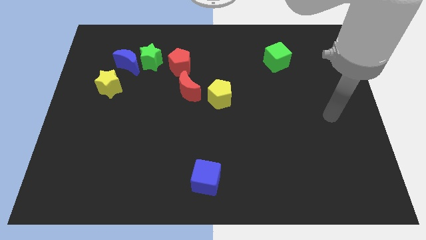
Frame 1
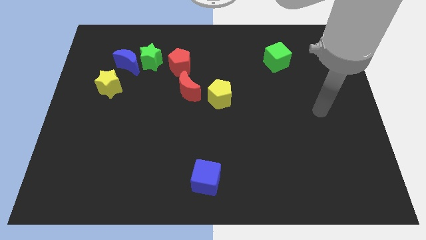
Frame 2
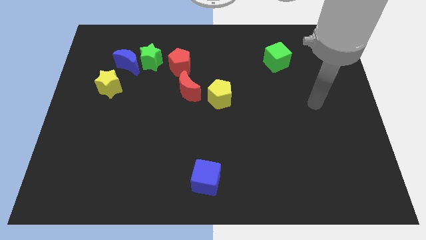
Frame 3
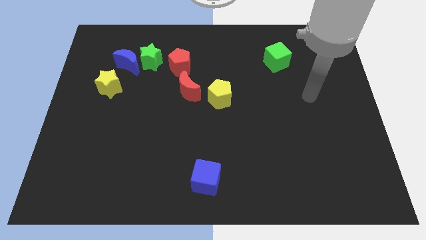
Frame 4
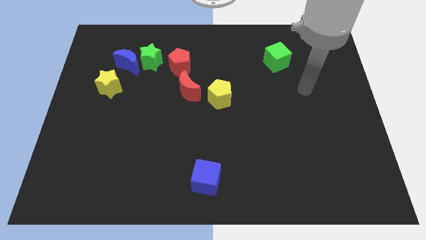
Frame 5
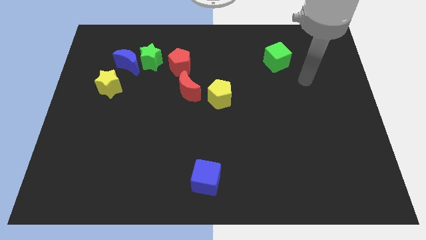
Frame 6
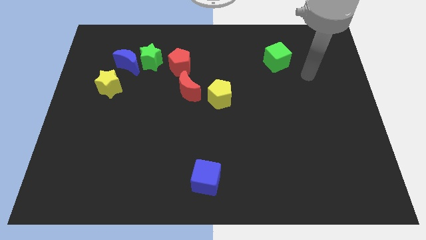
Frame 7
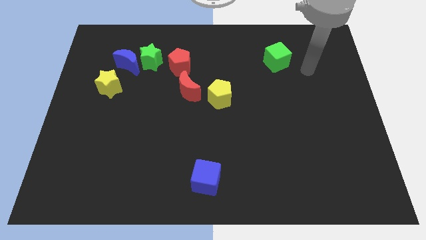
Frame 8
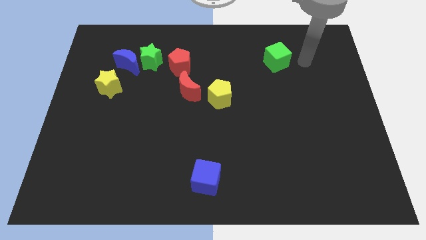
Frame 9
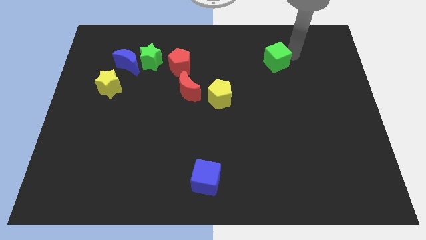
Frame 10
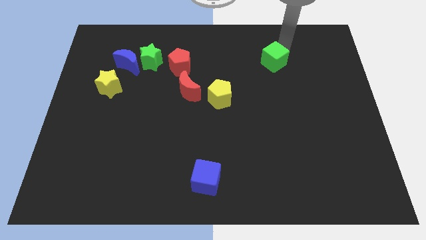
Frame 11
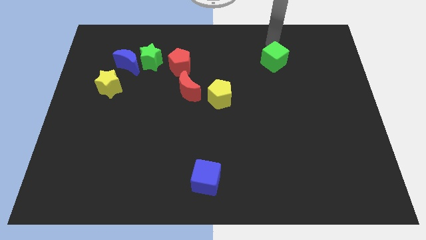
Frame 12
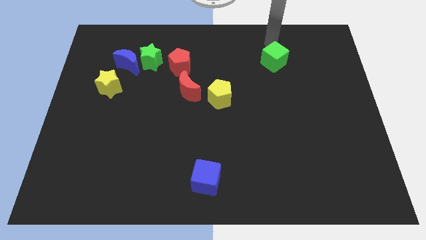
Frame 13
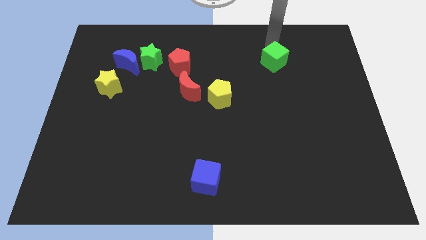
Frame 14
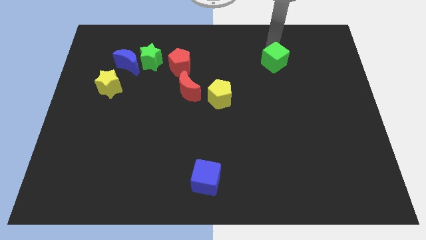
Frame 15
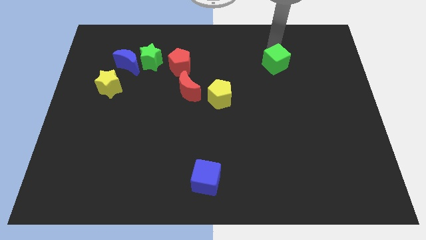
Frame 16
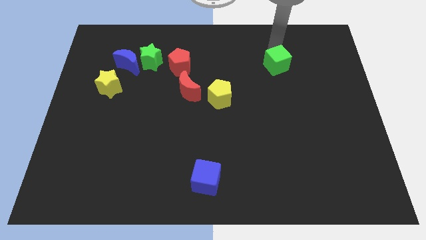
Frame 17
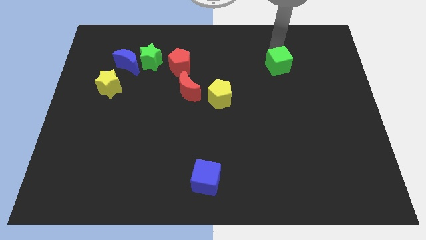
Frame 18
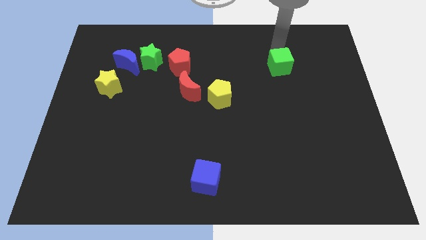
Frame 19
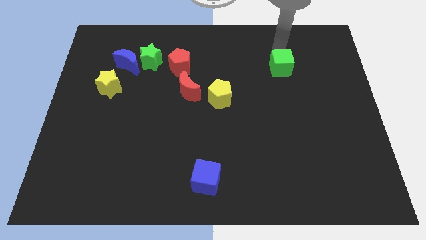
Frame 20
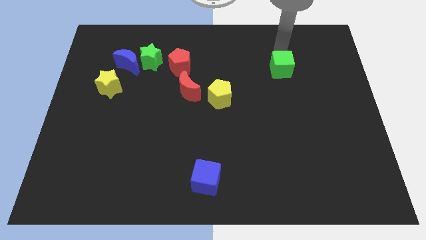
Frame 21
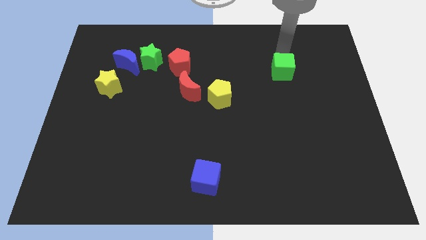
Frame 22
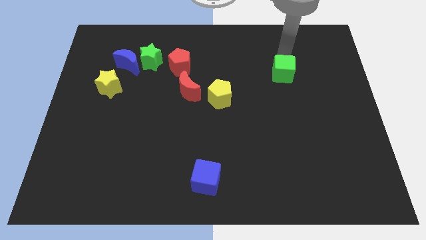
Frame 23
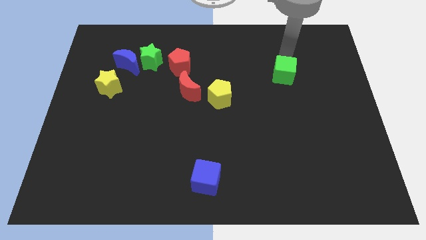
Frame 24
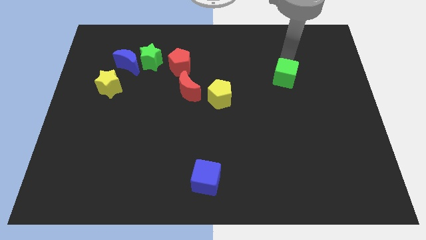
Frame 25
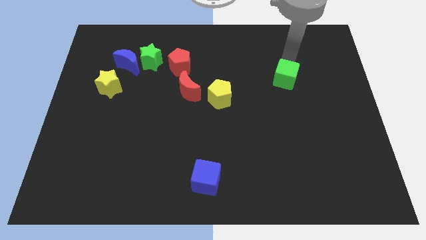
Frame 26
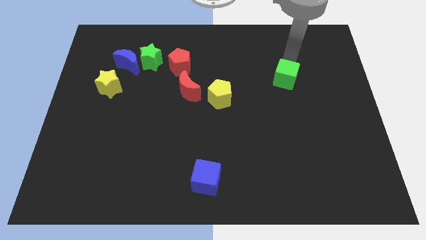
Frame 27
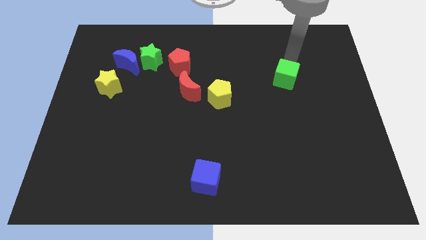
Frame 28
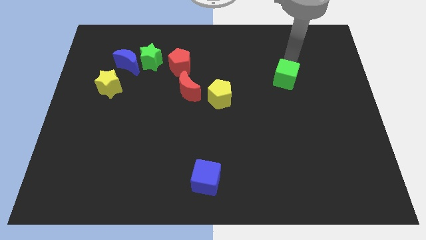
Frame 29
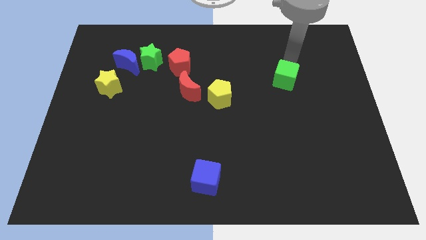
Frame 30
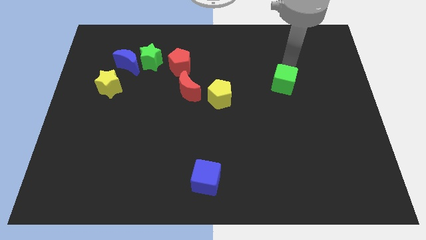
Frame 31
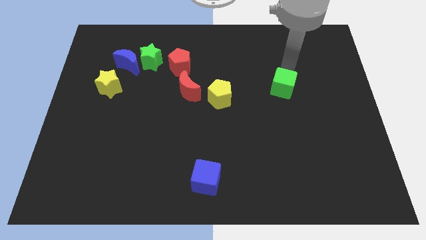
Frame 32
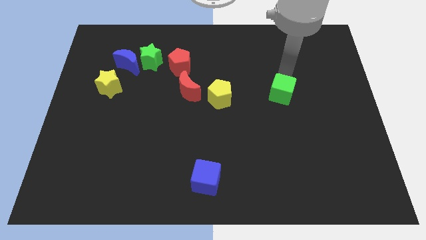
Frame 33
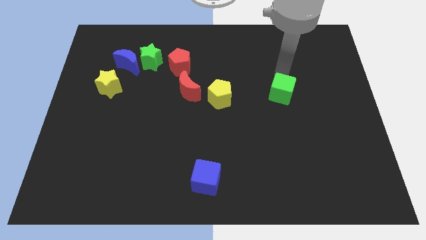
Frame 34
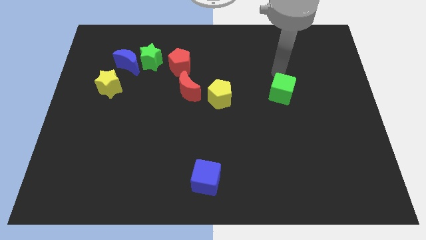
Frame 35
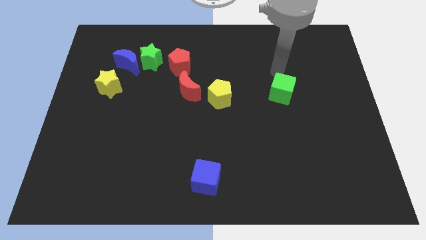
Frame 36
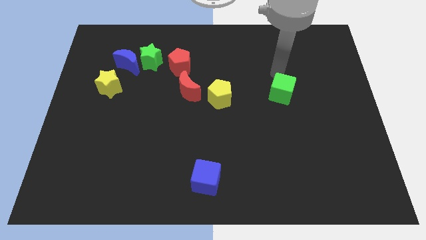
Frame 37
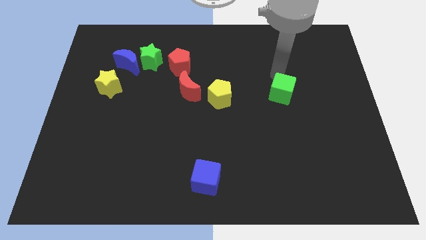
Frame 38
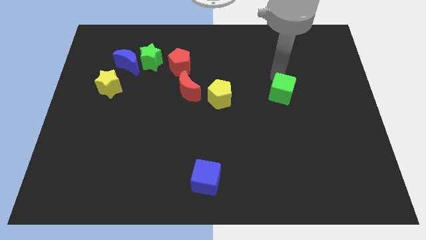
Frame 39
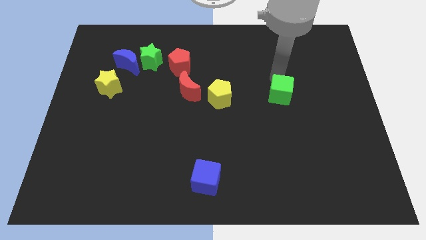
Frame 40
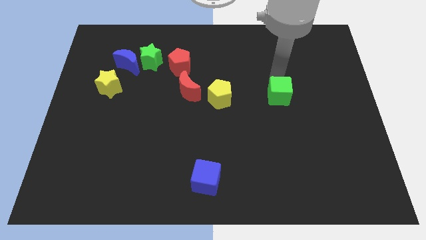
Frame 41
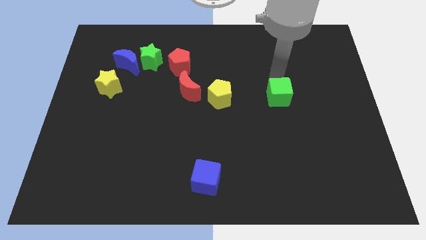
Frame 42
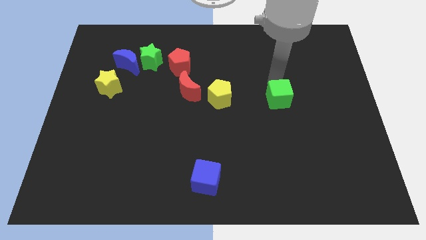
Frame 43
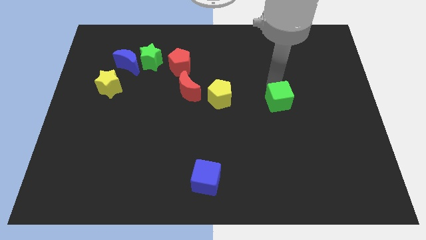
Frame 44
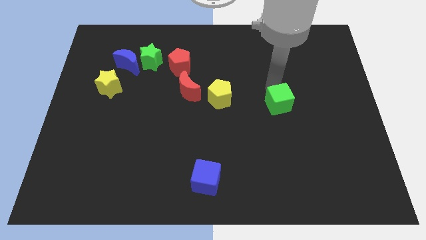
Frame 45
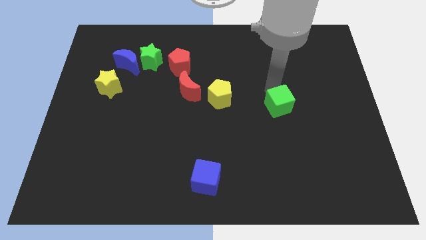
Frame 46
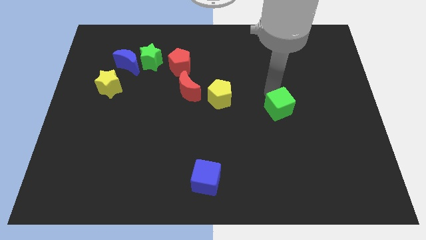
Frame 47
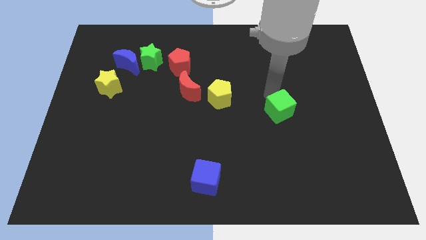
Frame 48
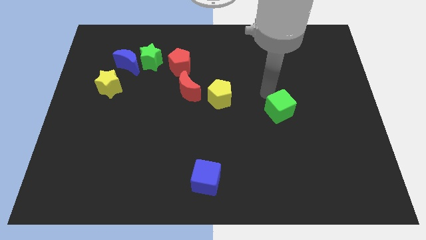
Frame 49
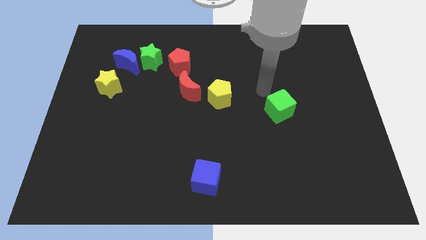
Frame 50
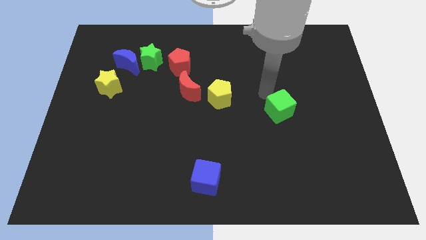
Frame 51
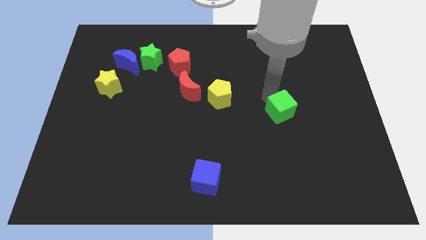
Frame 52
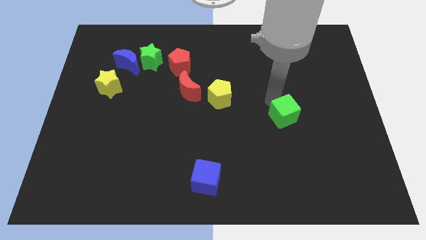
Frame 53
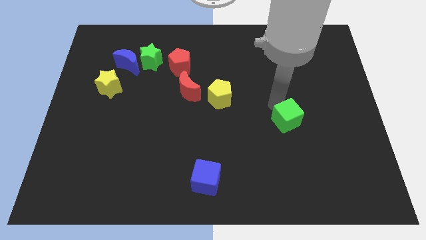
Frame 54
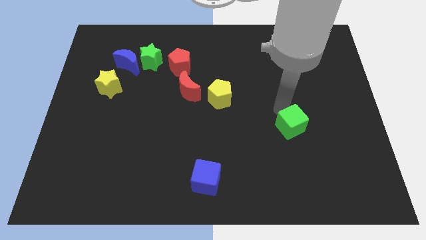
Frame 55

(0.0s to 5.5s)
slide the green cube downwards

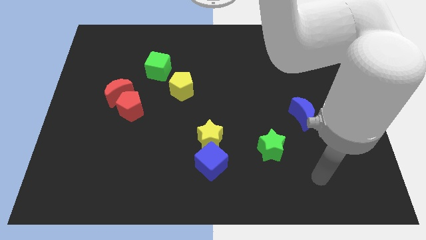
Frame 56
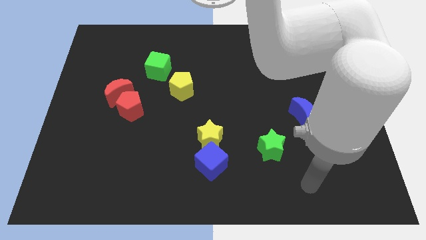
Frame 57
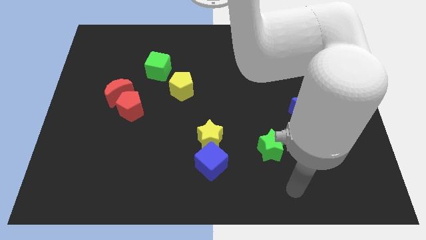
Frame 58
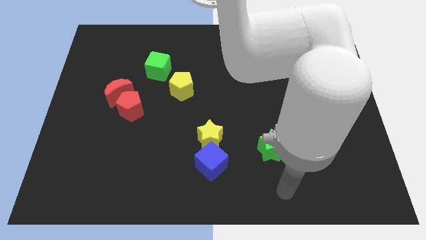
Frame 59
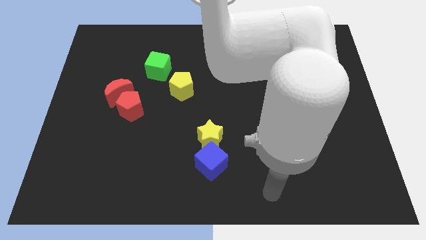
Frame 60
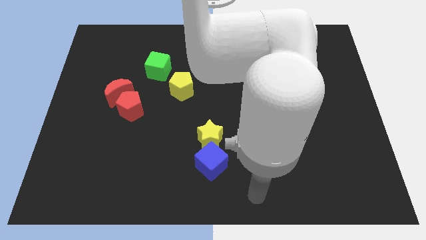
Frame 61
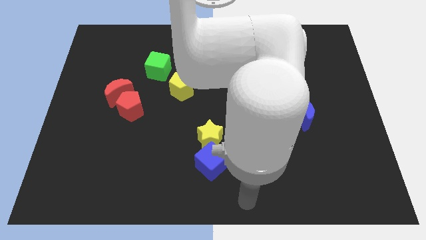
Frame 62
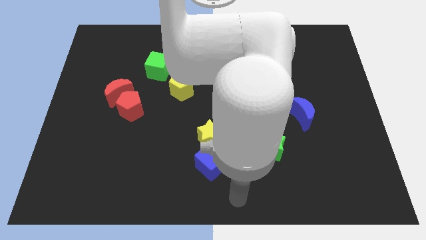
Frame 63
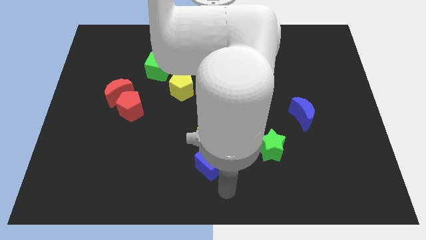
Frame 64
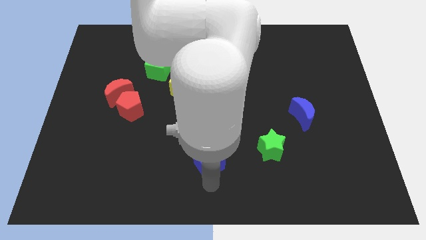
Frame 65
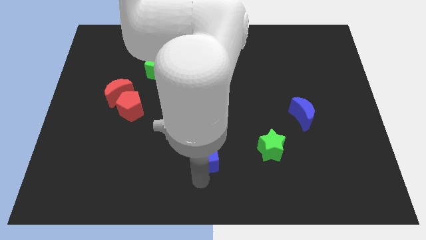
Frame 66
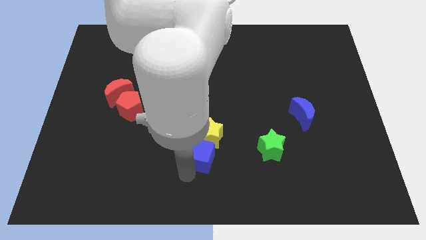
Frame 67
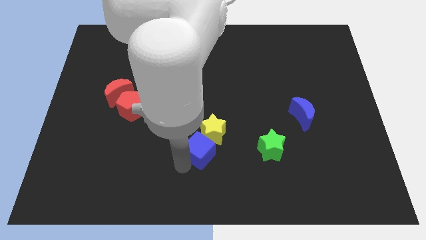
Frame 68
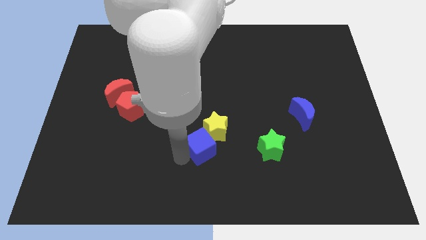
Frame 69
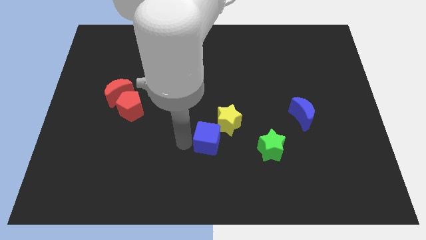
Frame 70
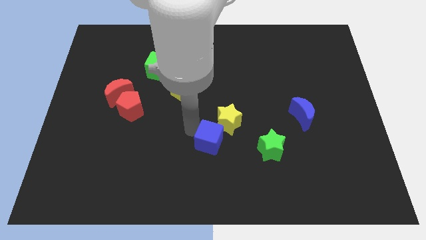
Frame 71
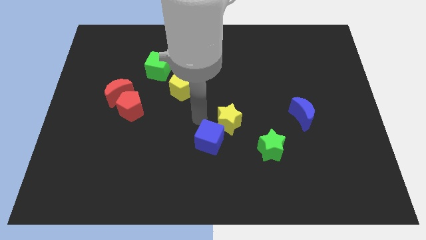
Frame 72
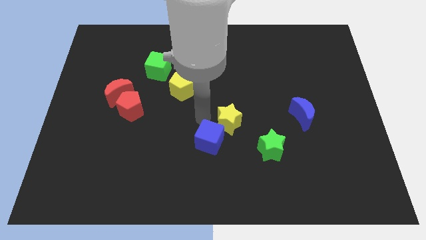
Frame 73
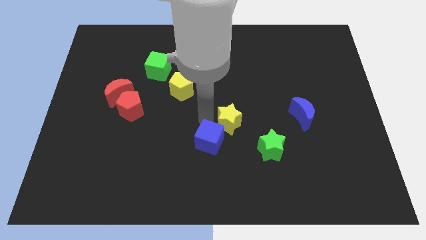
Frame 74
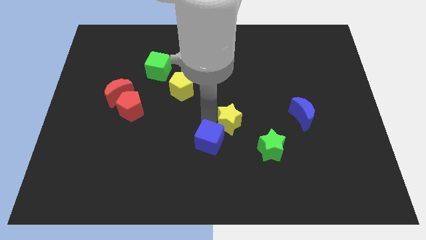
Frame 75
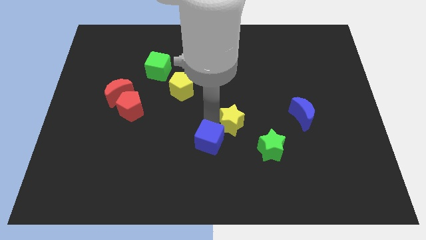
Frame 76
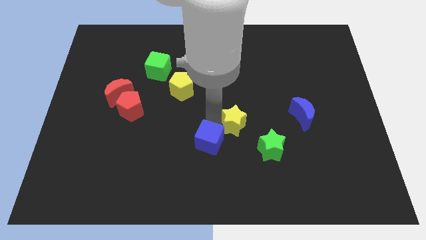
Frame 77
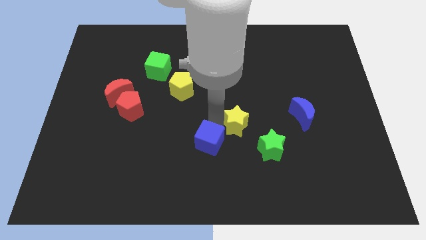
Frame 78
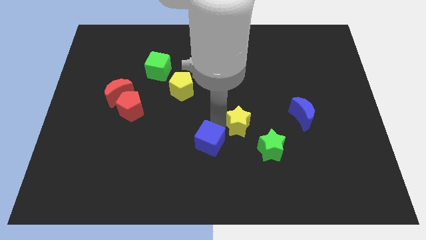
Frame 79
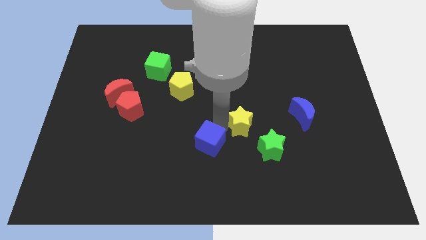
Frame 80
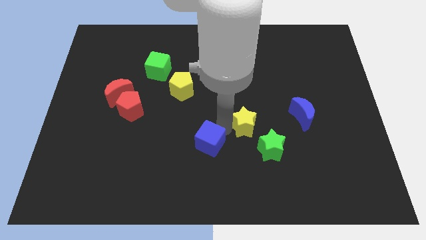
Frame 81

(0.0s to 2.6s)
slightly slide the yellow star to the right
